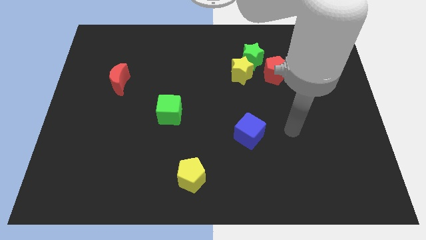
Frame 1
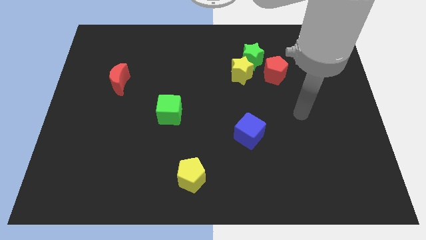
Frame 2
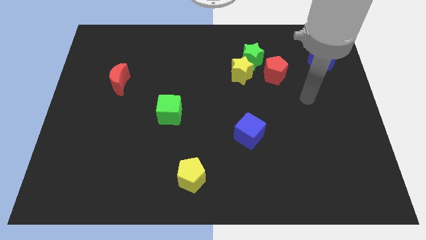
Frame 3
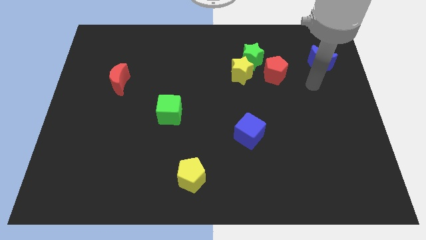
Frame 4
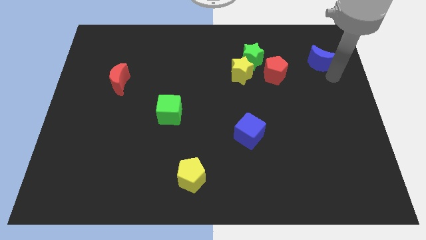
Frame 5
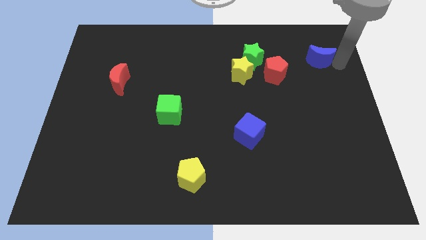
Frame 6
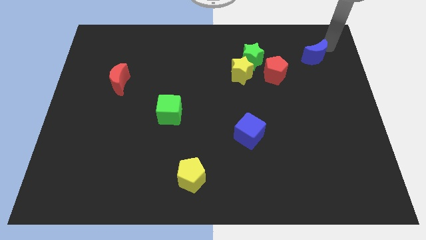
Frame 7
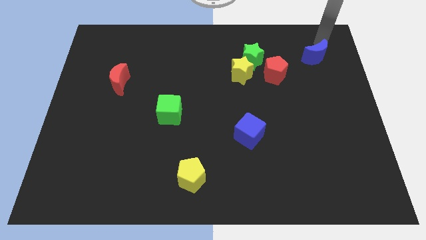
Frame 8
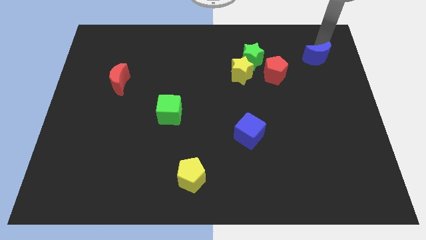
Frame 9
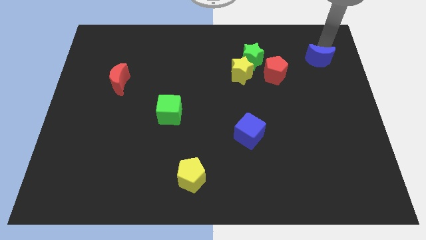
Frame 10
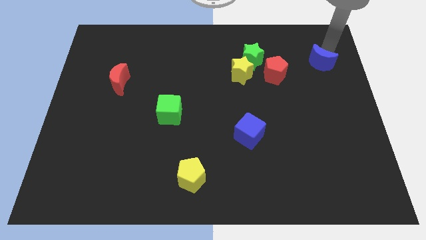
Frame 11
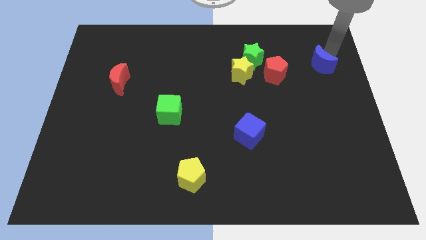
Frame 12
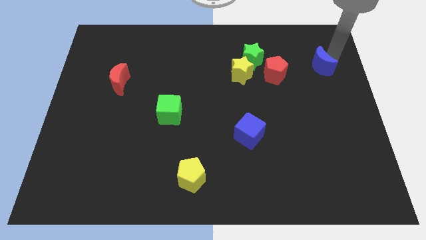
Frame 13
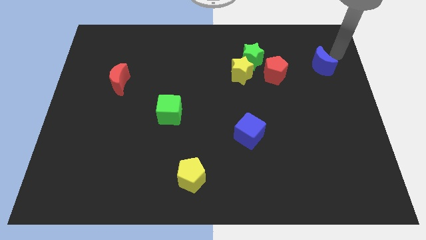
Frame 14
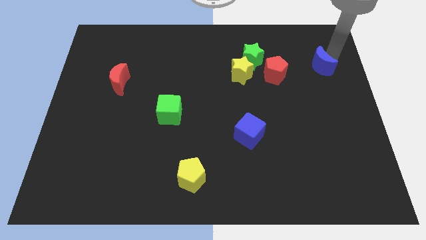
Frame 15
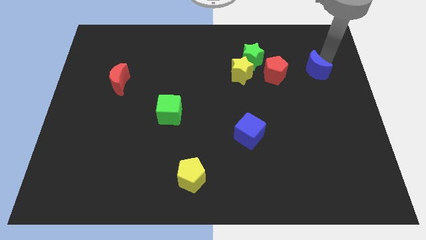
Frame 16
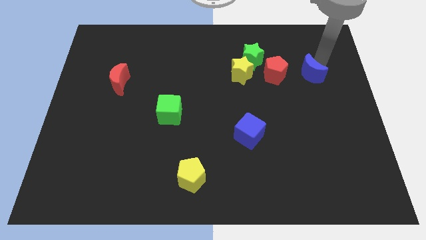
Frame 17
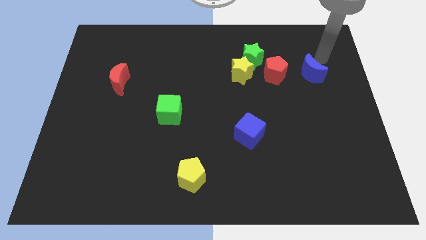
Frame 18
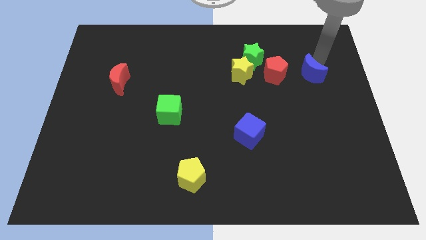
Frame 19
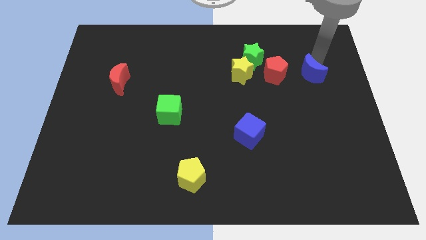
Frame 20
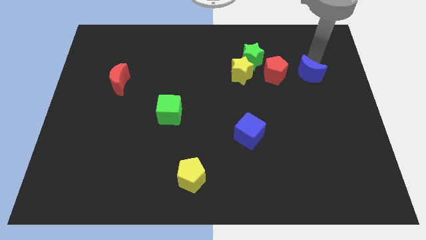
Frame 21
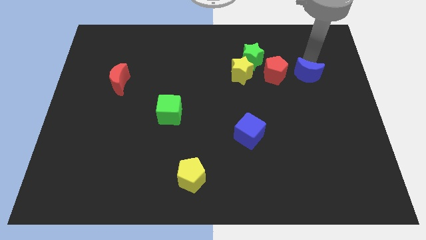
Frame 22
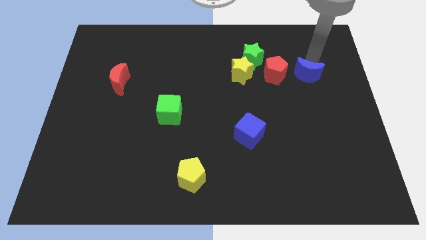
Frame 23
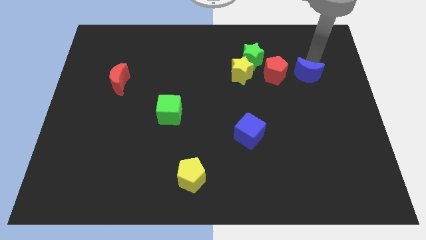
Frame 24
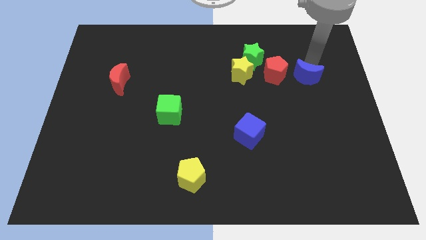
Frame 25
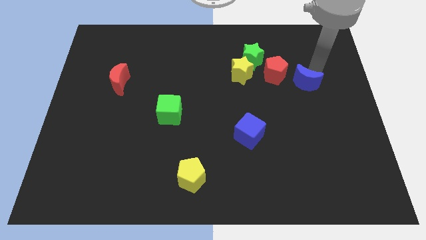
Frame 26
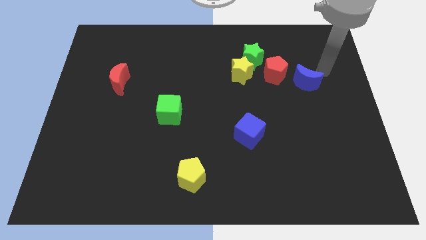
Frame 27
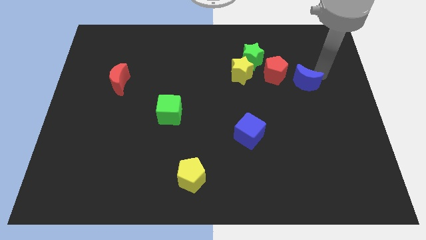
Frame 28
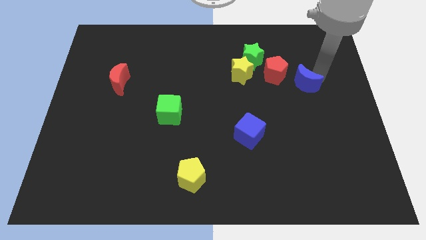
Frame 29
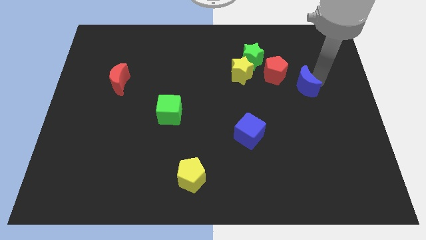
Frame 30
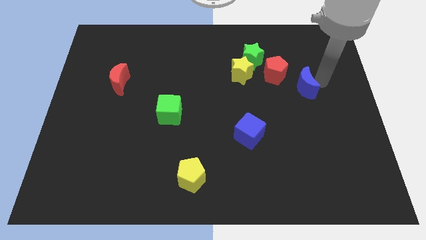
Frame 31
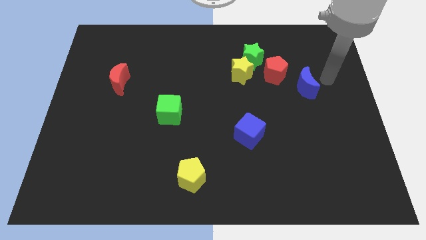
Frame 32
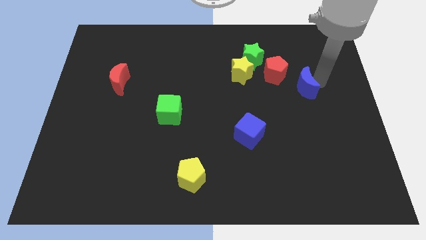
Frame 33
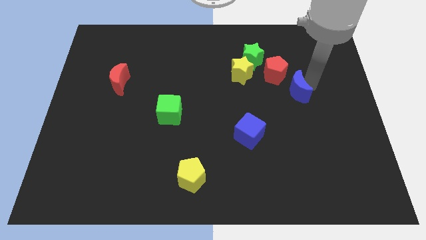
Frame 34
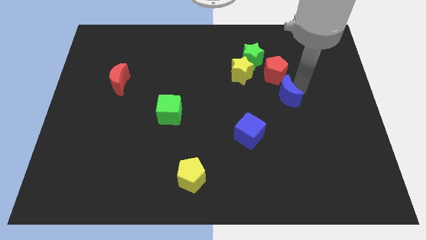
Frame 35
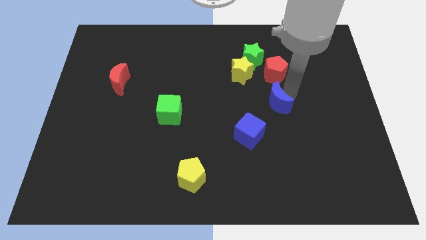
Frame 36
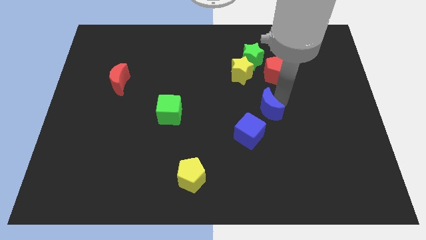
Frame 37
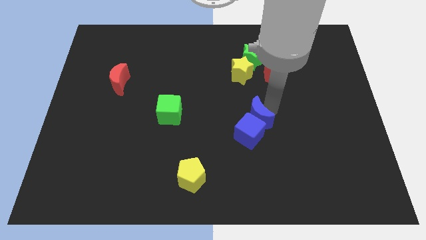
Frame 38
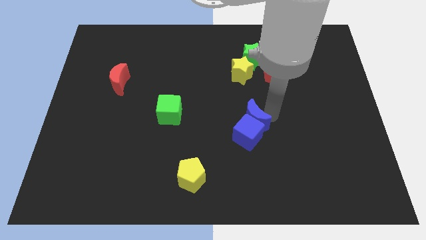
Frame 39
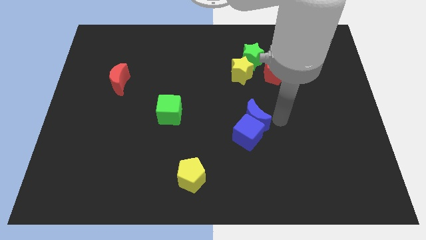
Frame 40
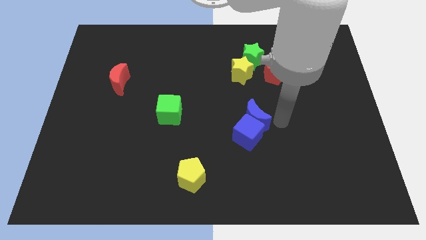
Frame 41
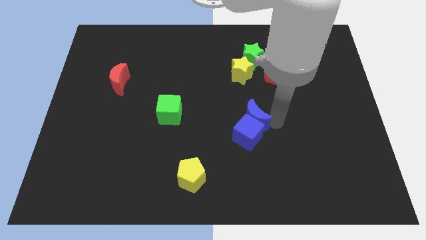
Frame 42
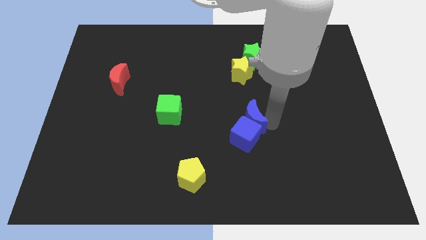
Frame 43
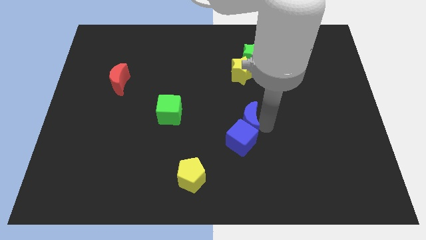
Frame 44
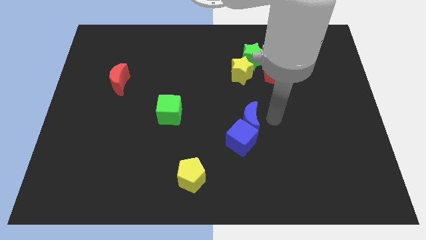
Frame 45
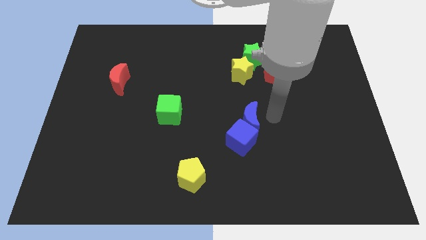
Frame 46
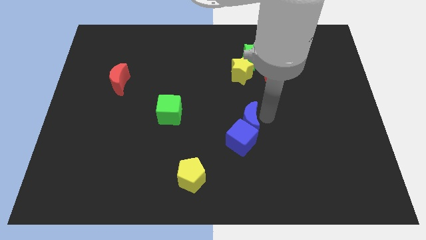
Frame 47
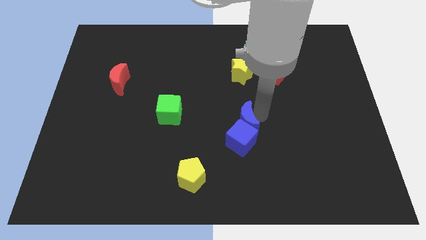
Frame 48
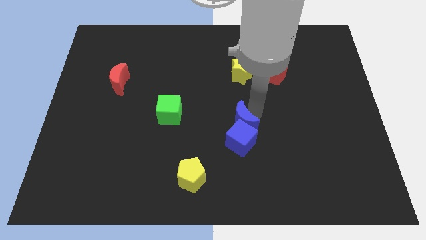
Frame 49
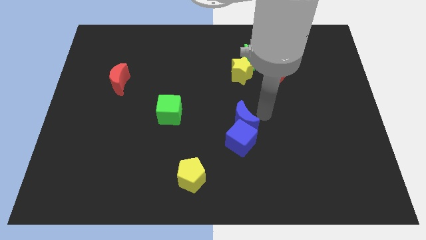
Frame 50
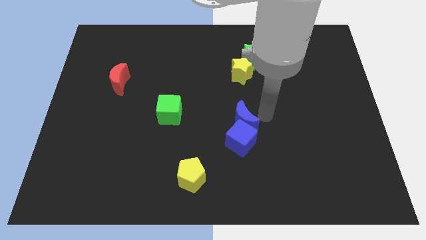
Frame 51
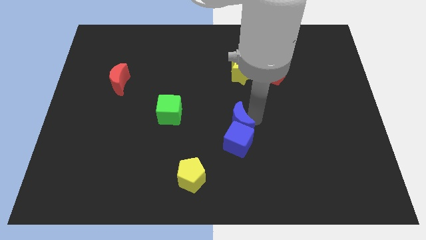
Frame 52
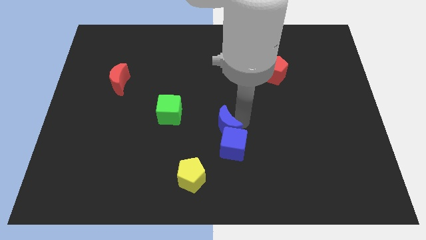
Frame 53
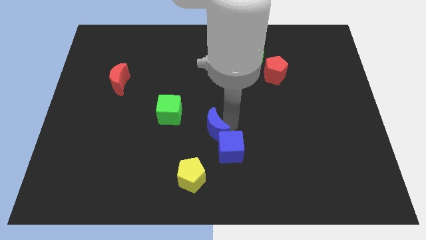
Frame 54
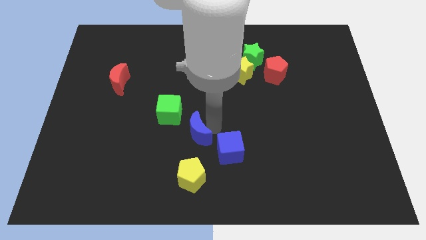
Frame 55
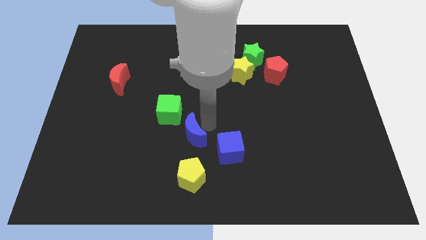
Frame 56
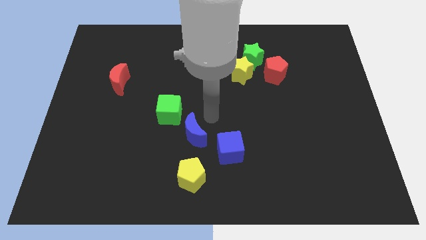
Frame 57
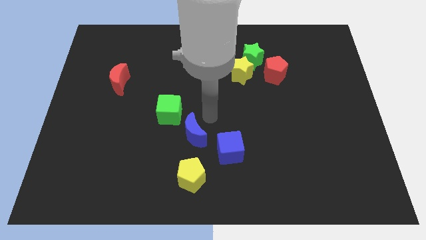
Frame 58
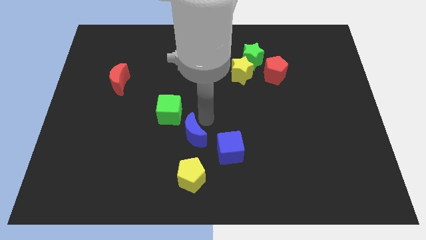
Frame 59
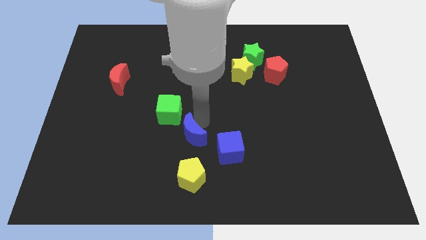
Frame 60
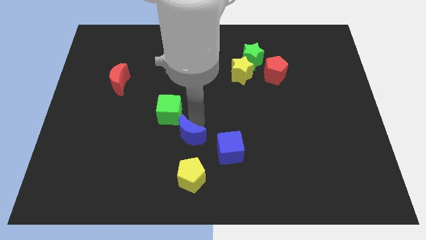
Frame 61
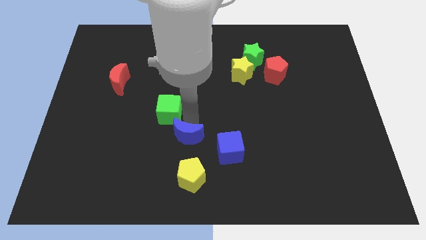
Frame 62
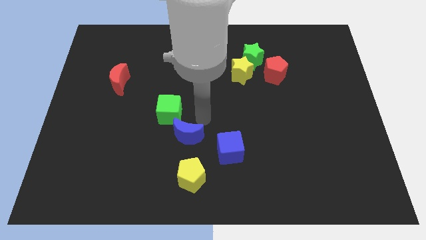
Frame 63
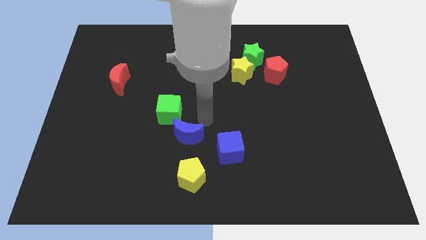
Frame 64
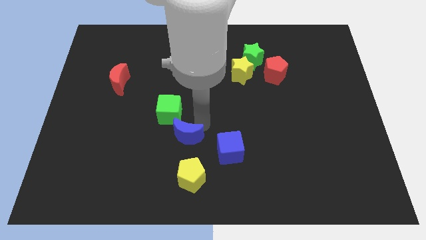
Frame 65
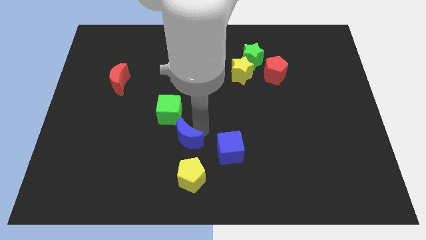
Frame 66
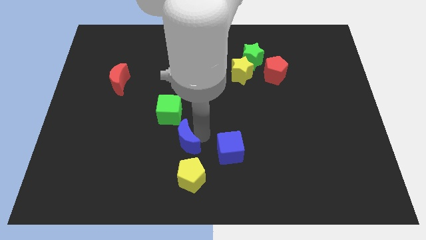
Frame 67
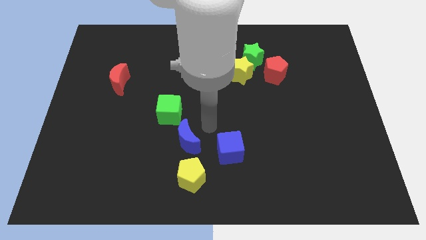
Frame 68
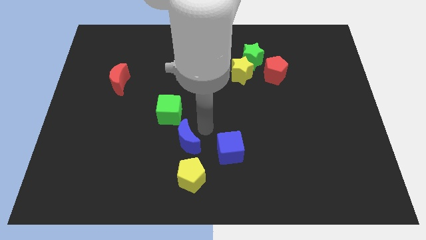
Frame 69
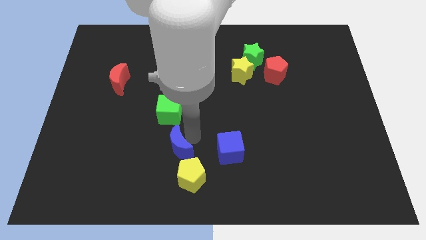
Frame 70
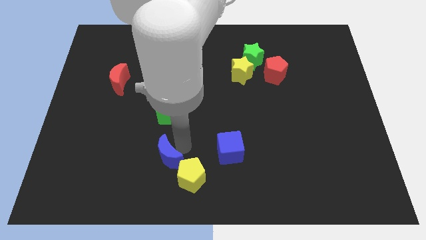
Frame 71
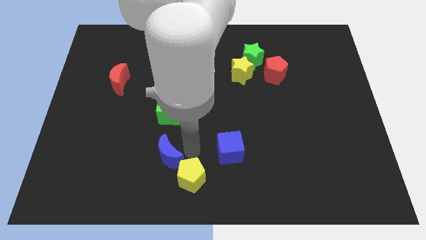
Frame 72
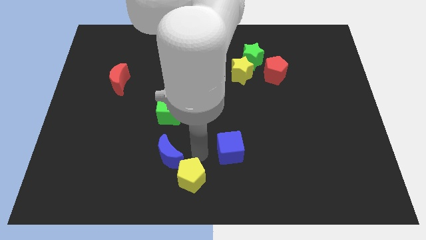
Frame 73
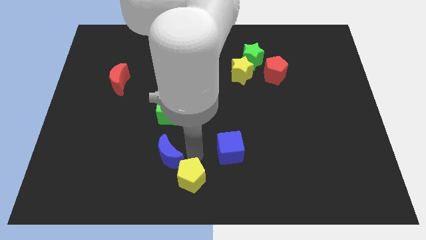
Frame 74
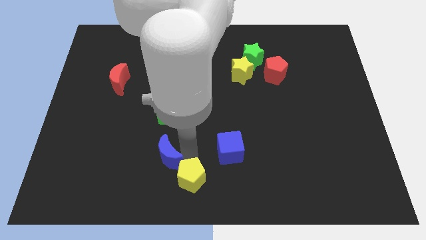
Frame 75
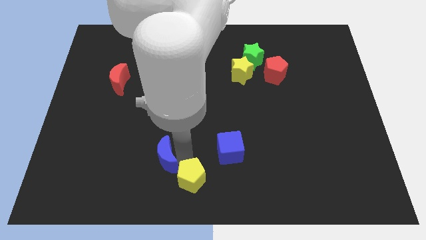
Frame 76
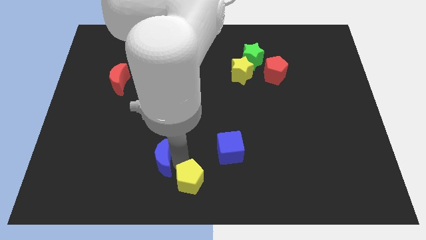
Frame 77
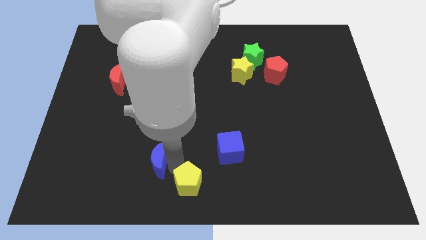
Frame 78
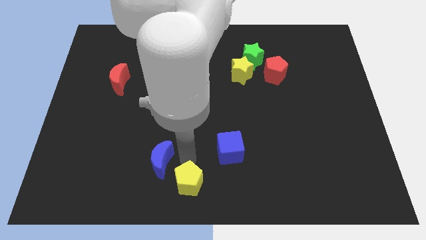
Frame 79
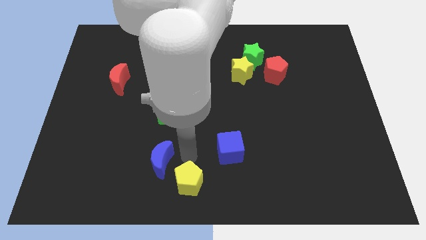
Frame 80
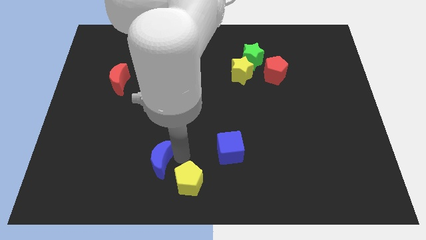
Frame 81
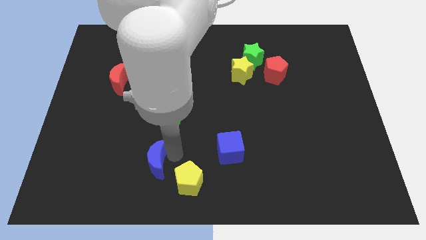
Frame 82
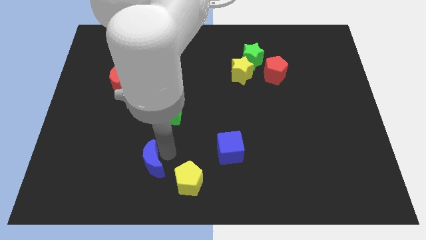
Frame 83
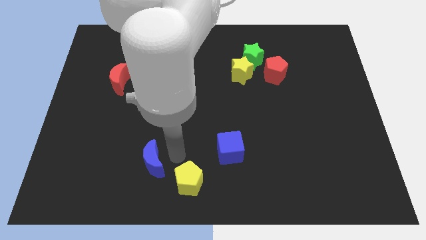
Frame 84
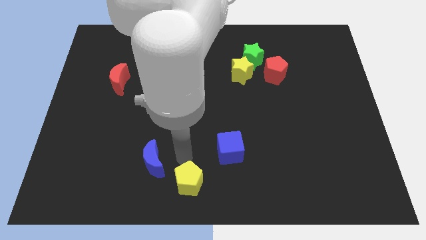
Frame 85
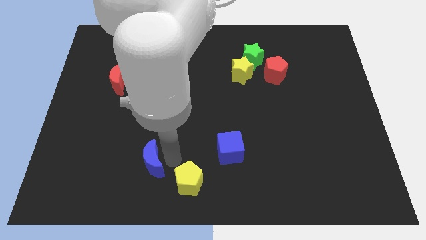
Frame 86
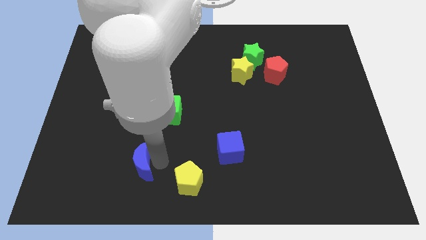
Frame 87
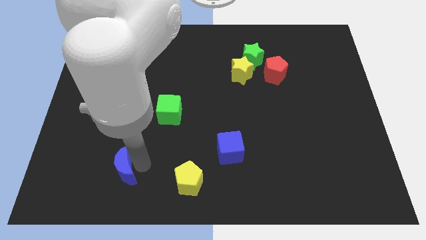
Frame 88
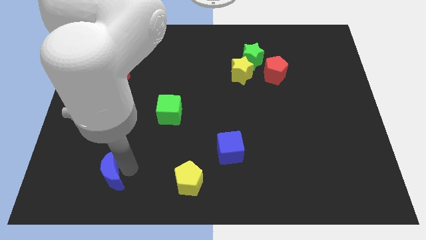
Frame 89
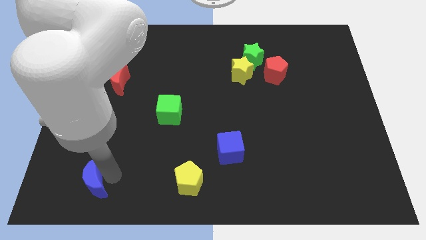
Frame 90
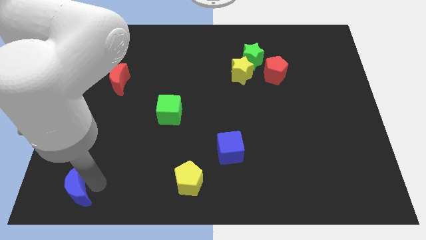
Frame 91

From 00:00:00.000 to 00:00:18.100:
move the blue moon to the bottom left
